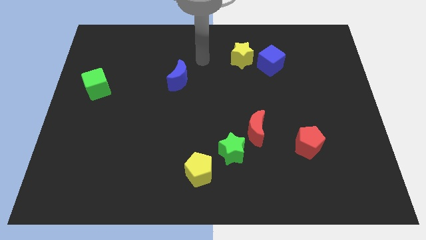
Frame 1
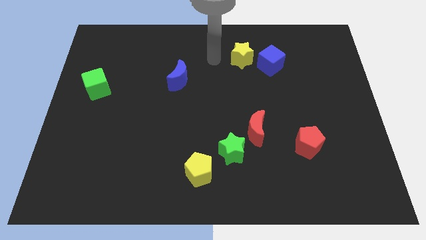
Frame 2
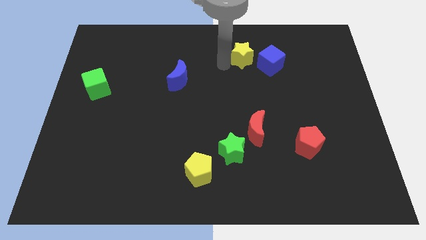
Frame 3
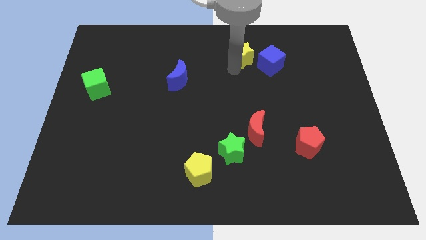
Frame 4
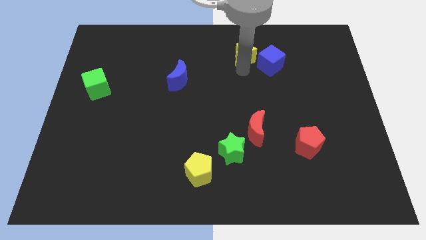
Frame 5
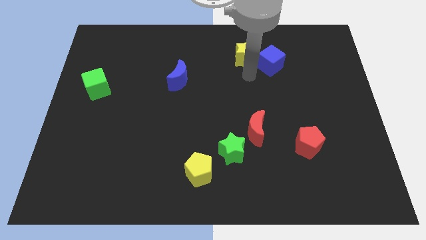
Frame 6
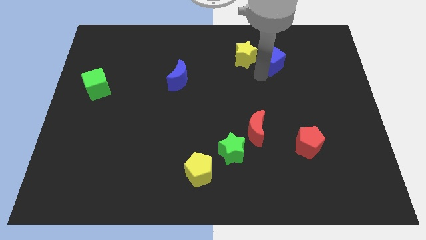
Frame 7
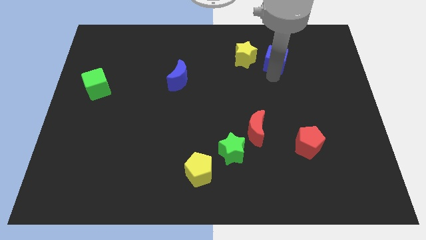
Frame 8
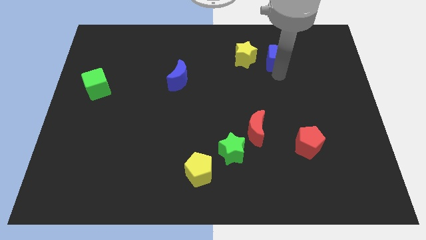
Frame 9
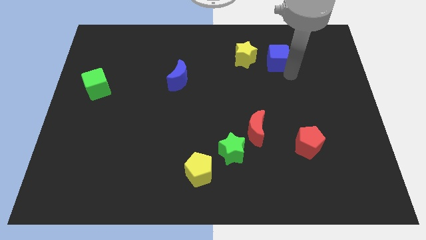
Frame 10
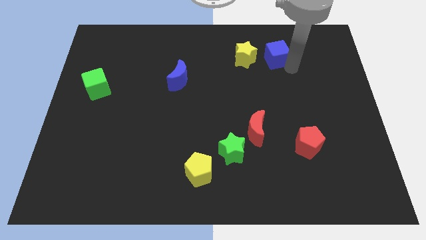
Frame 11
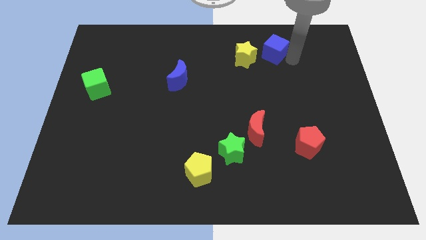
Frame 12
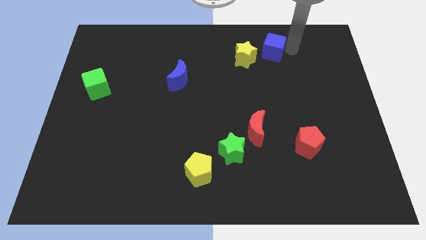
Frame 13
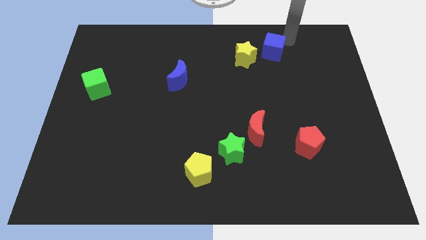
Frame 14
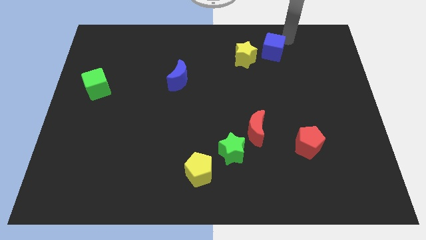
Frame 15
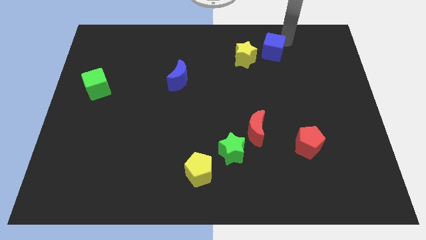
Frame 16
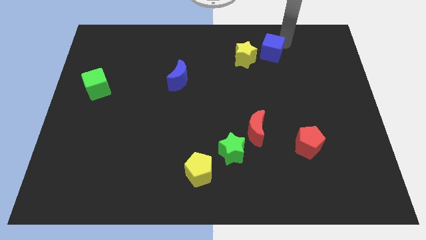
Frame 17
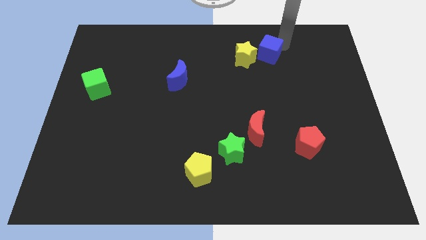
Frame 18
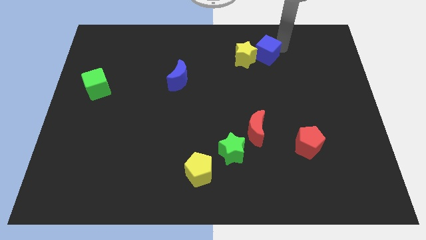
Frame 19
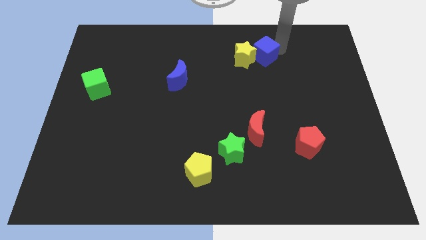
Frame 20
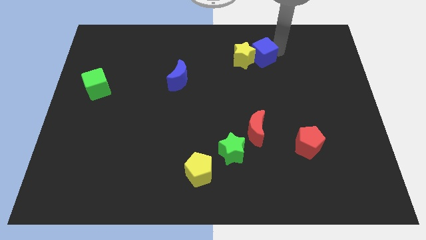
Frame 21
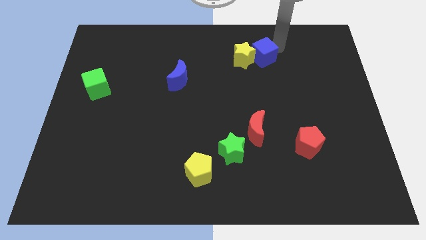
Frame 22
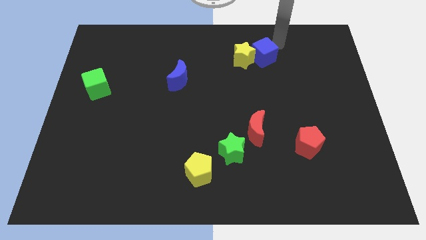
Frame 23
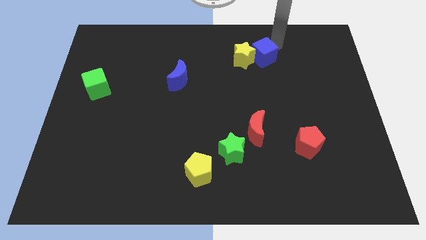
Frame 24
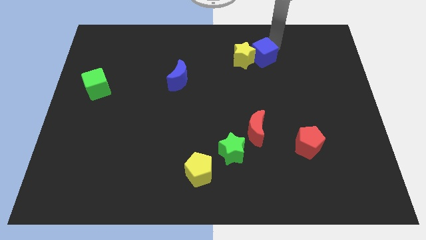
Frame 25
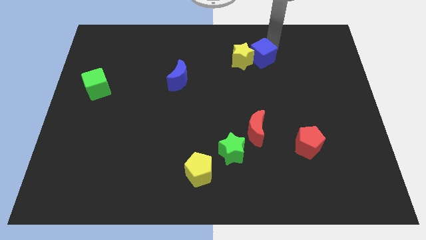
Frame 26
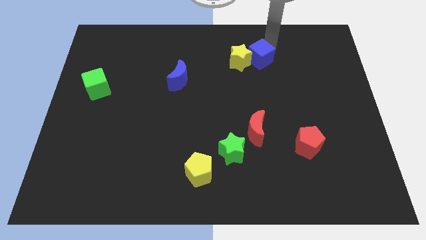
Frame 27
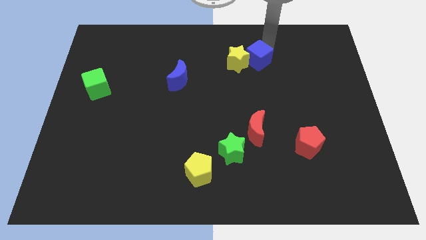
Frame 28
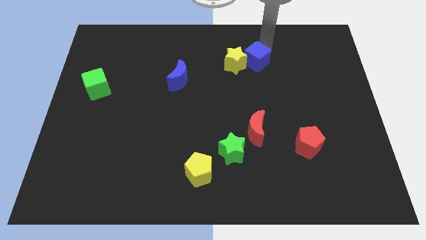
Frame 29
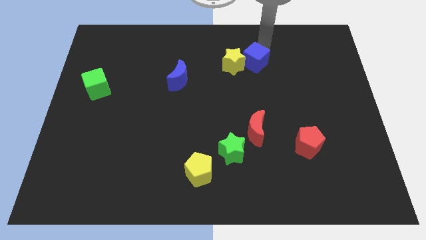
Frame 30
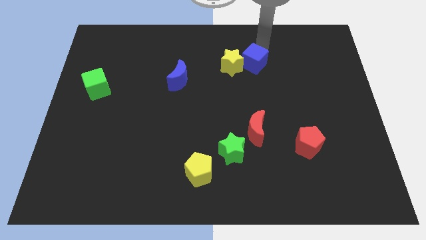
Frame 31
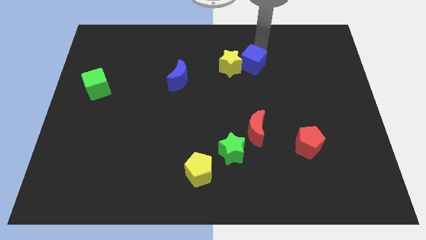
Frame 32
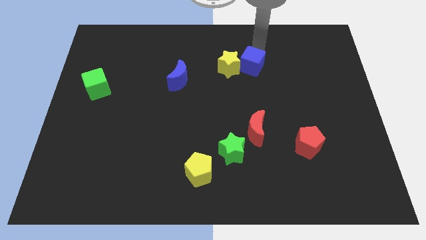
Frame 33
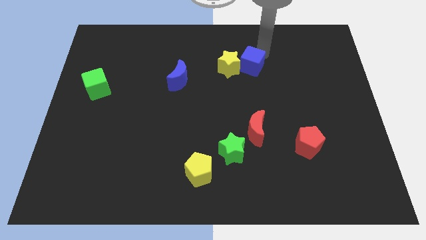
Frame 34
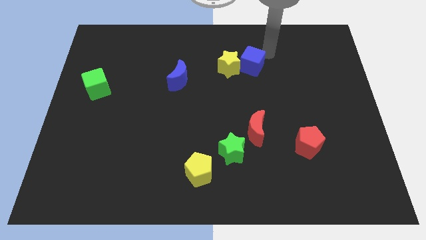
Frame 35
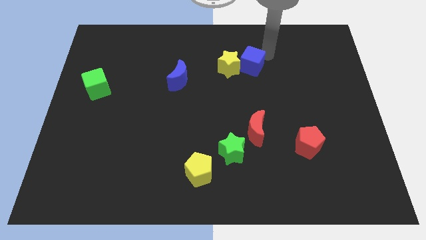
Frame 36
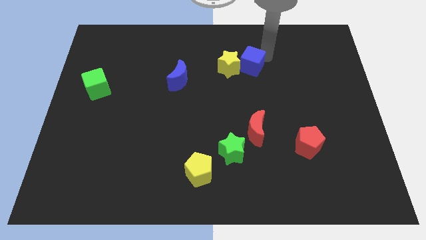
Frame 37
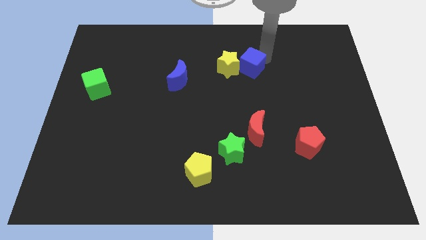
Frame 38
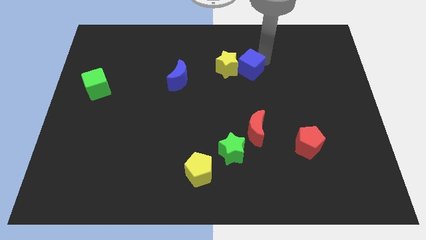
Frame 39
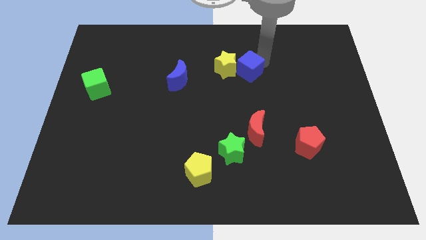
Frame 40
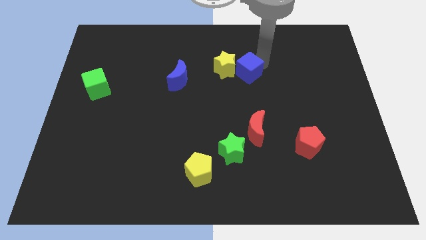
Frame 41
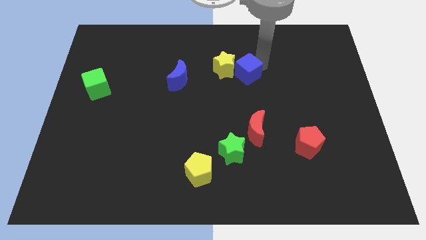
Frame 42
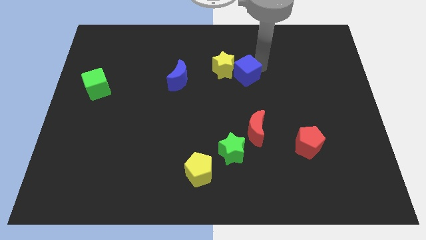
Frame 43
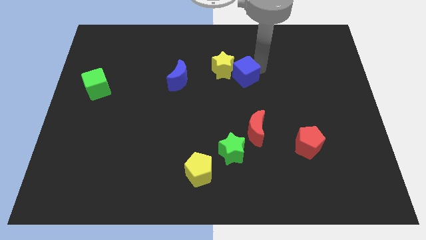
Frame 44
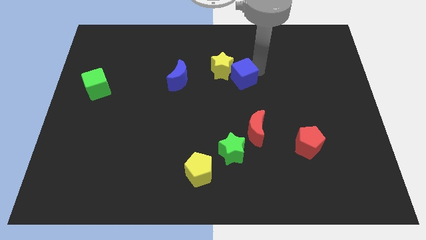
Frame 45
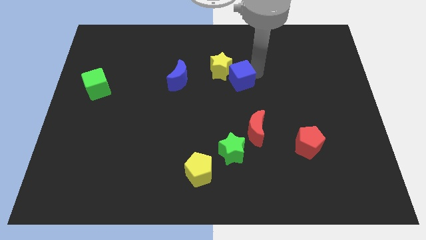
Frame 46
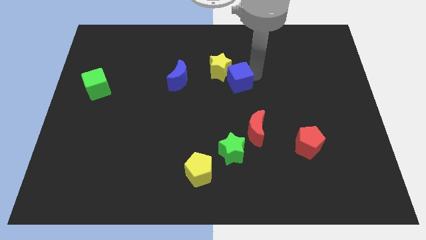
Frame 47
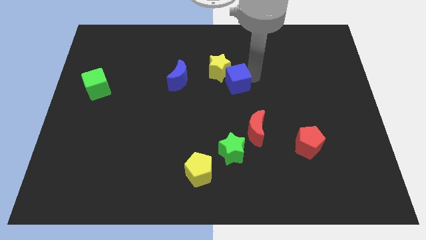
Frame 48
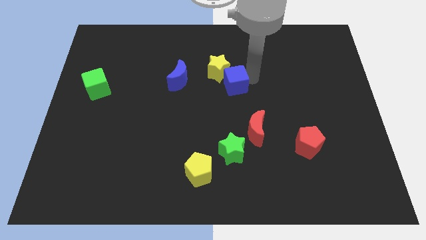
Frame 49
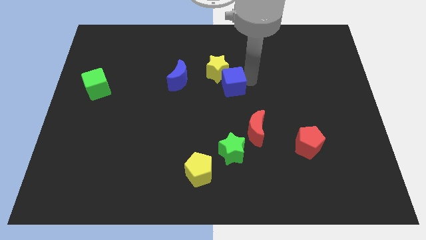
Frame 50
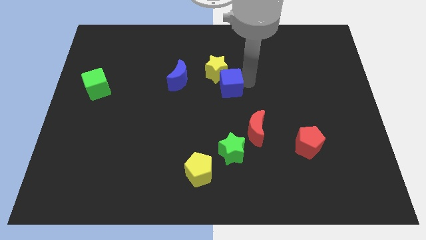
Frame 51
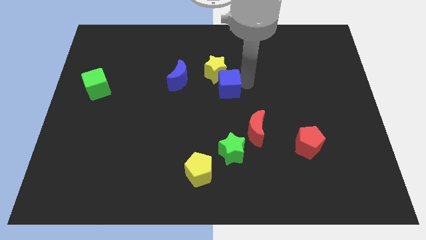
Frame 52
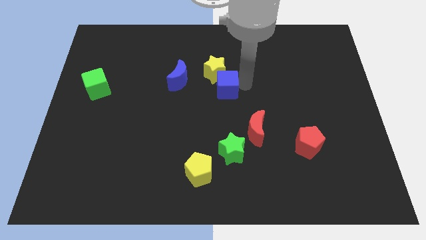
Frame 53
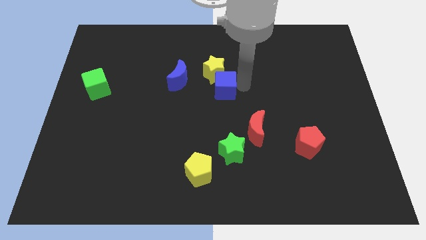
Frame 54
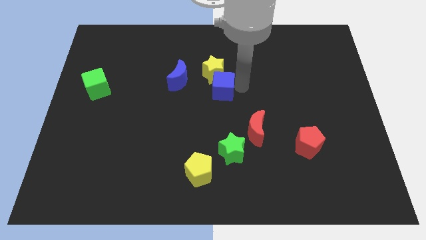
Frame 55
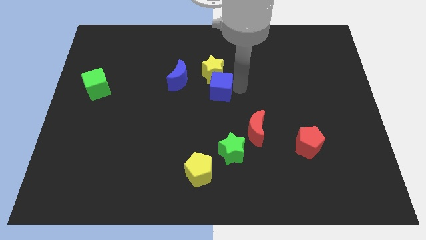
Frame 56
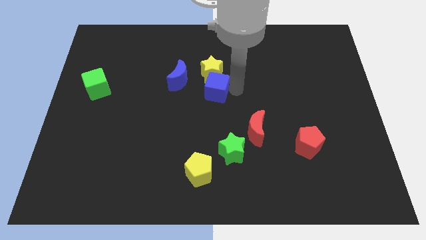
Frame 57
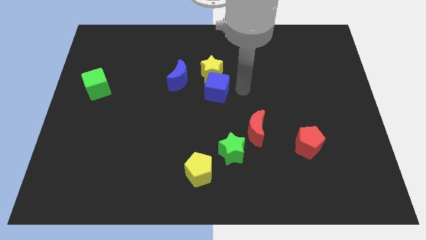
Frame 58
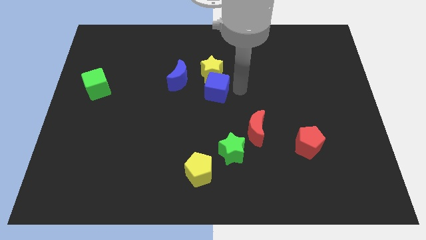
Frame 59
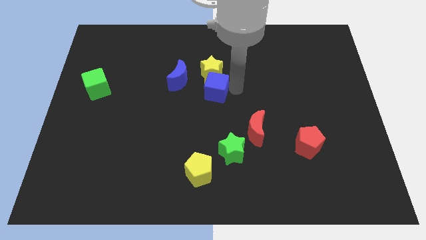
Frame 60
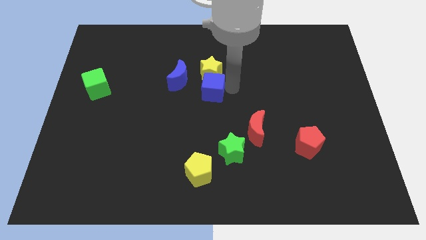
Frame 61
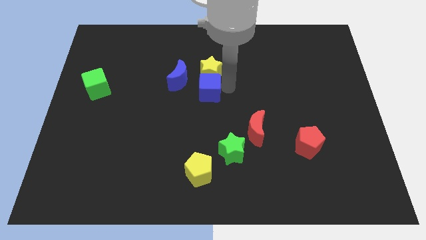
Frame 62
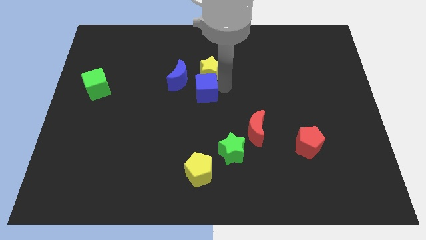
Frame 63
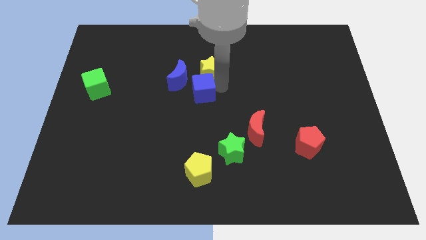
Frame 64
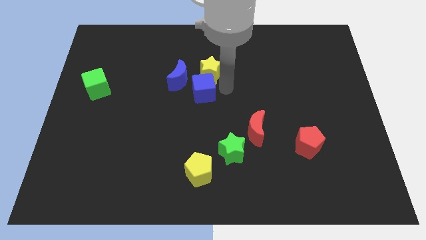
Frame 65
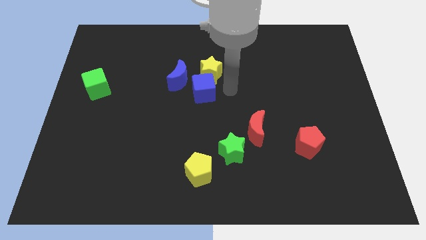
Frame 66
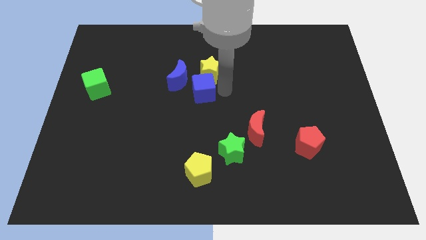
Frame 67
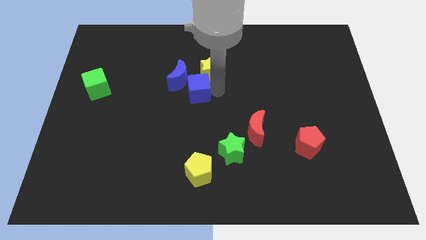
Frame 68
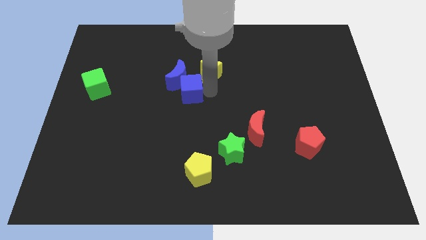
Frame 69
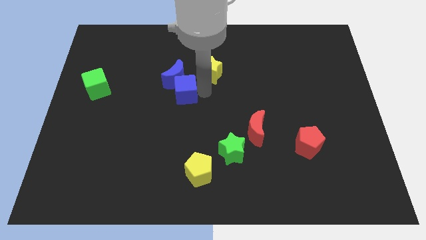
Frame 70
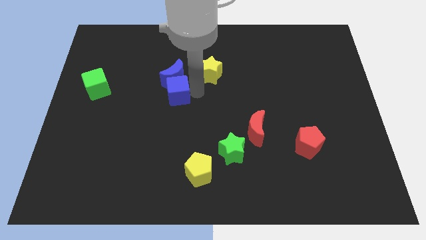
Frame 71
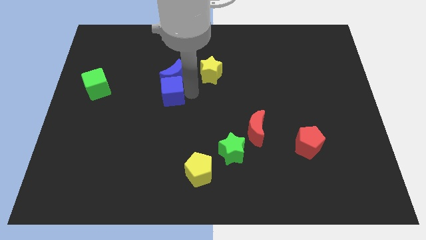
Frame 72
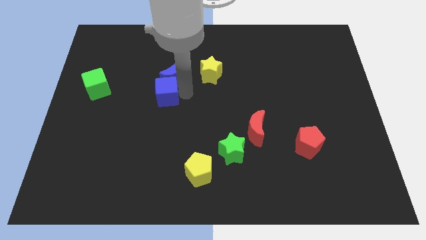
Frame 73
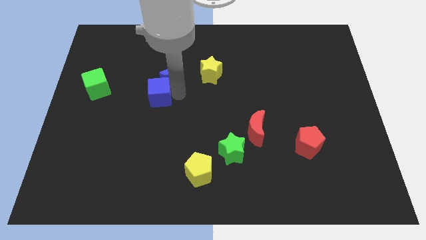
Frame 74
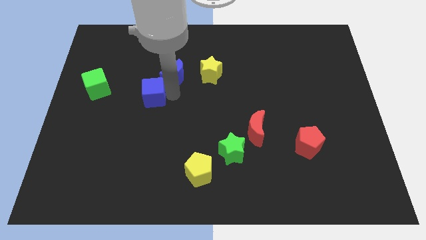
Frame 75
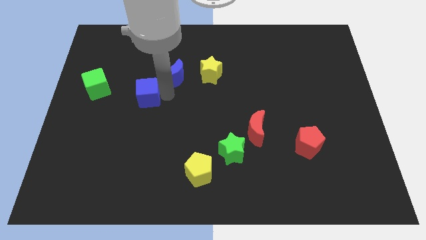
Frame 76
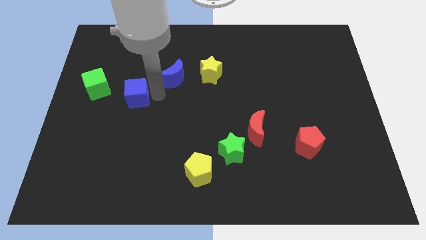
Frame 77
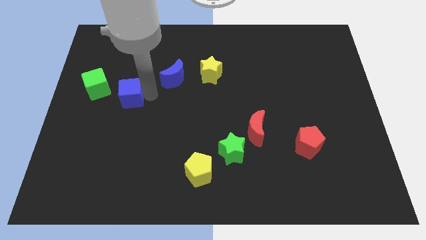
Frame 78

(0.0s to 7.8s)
put the blue cube diagonally down and to the right of the green cube
